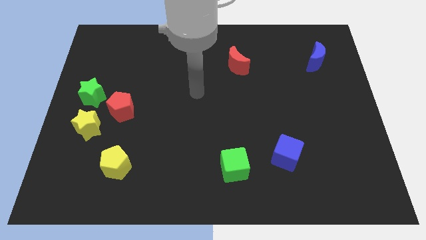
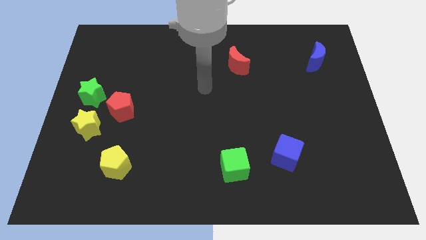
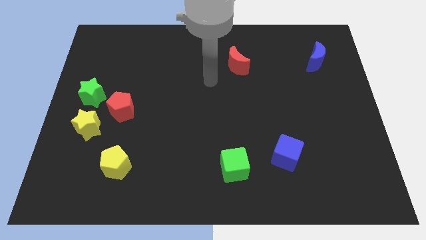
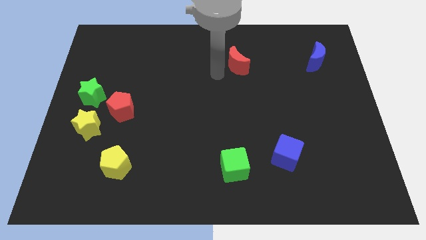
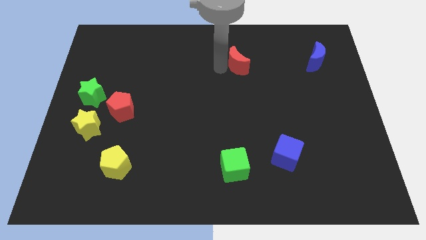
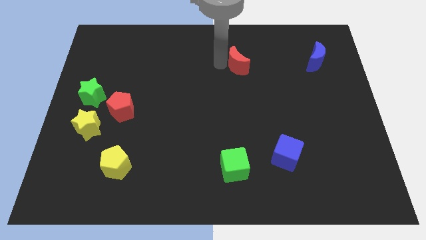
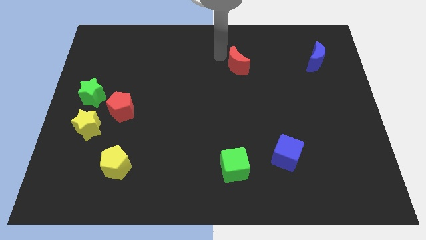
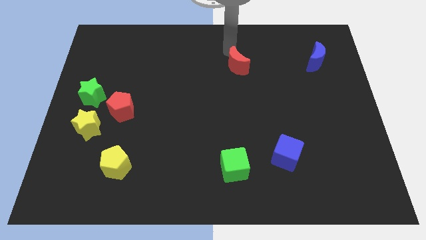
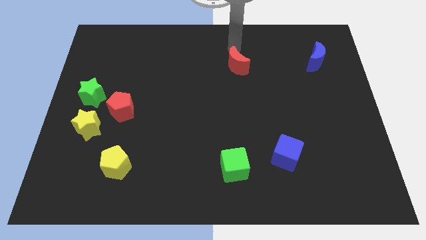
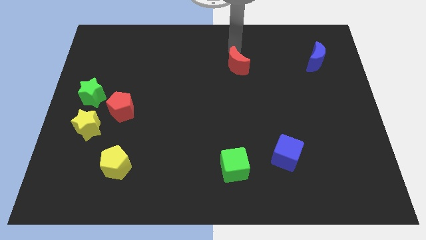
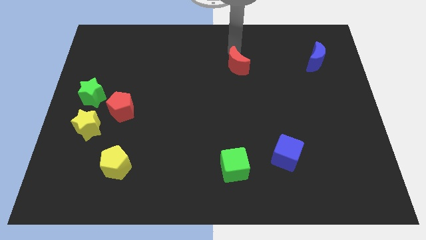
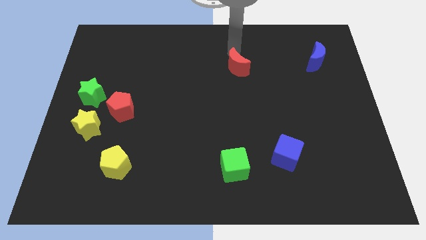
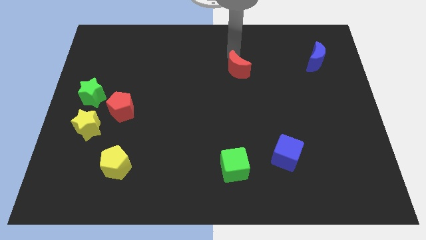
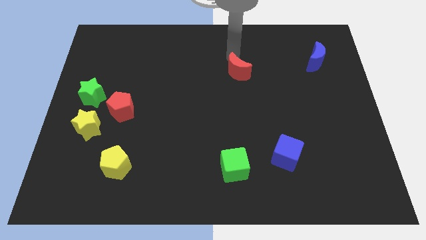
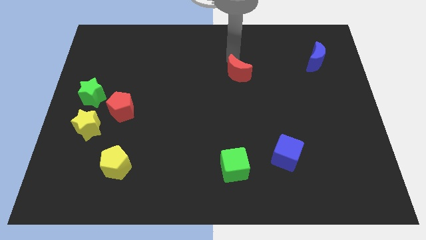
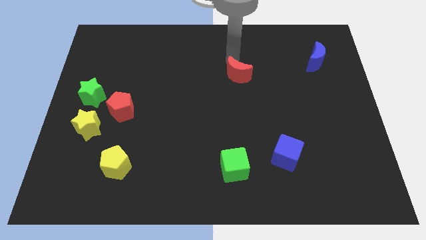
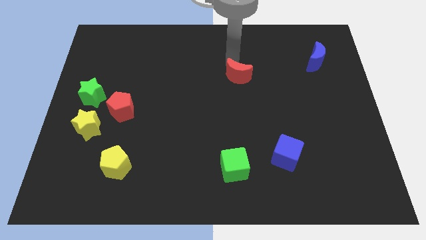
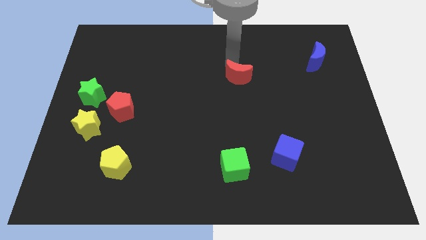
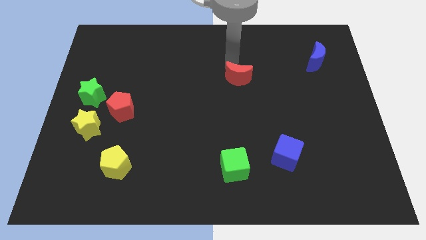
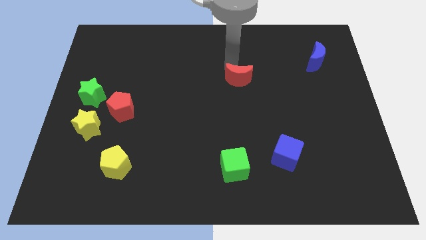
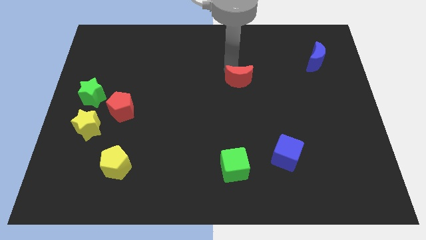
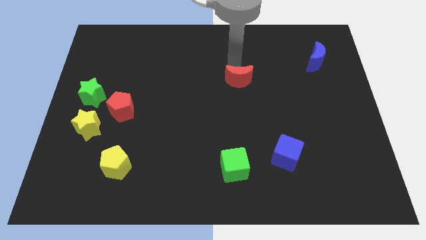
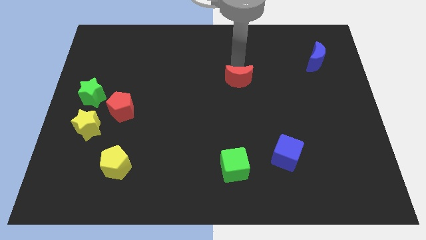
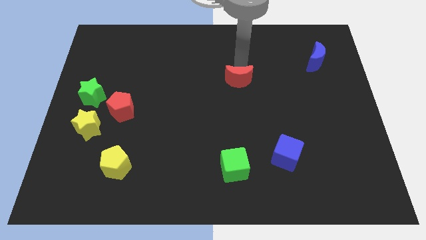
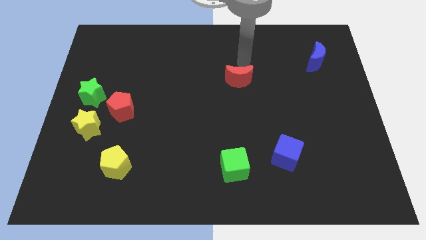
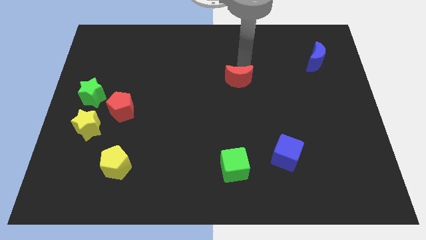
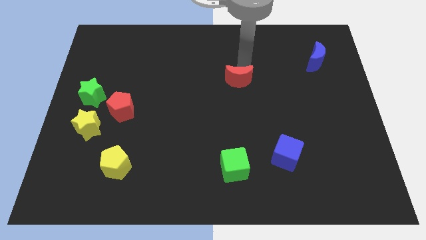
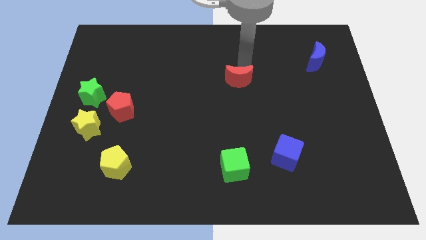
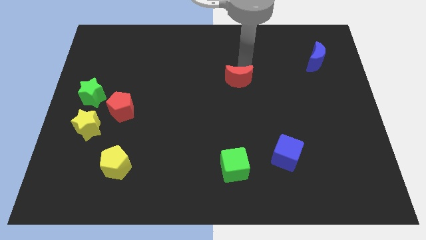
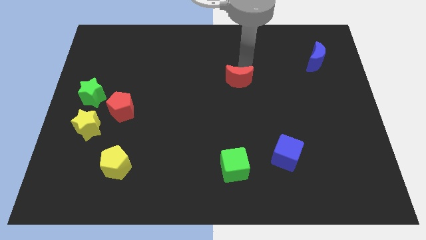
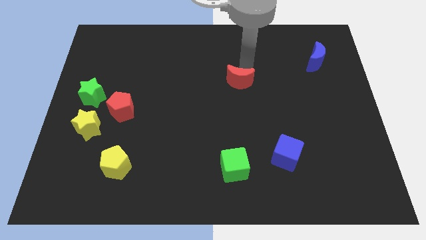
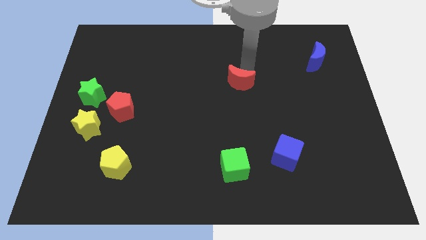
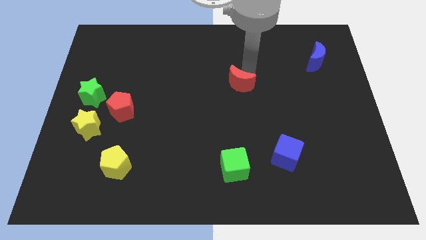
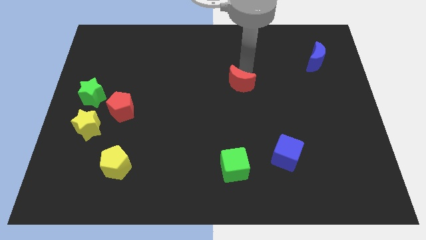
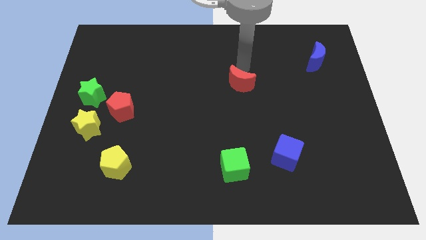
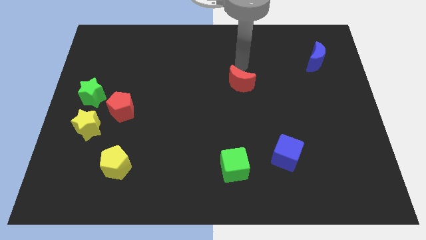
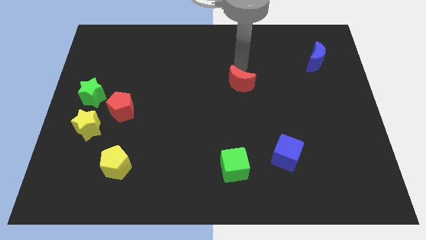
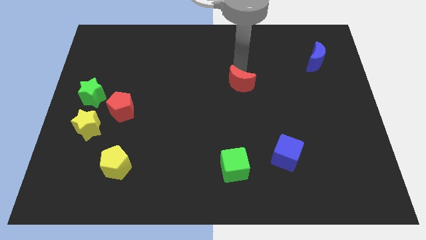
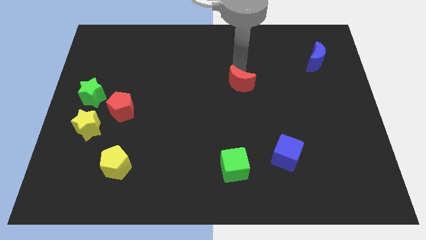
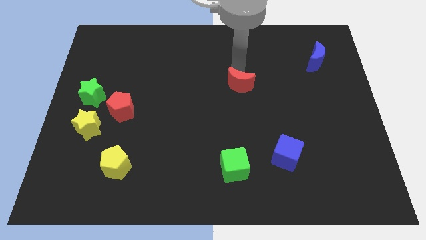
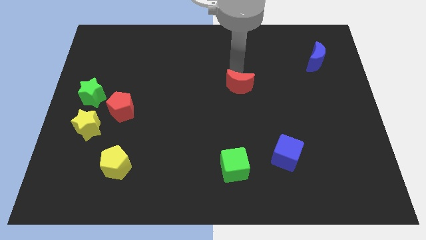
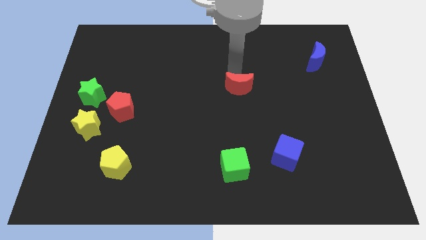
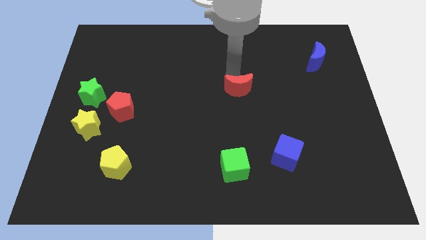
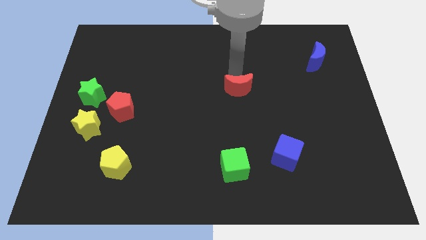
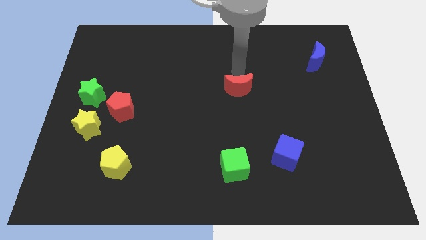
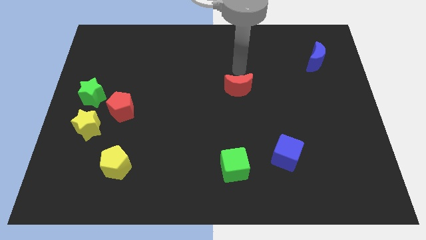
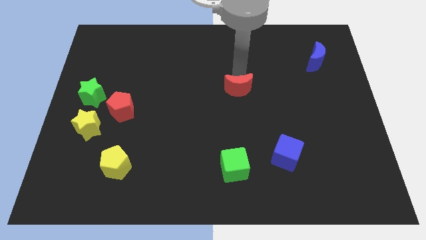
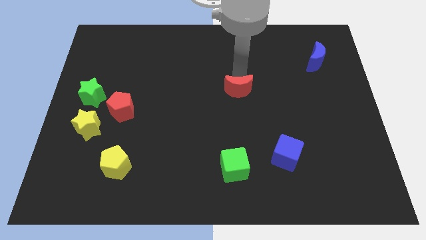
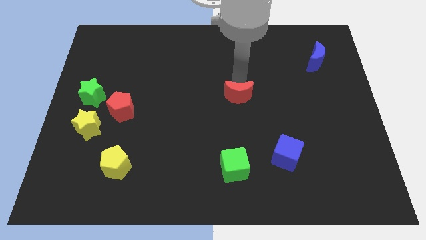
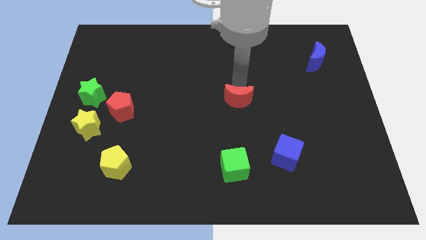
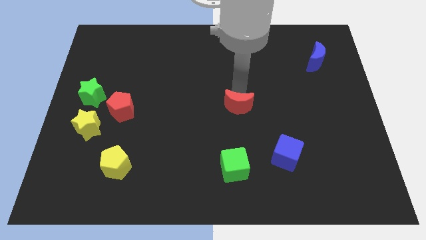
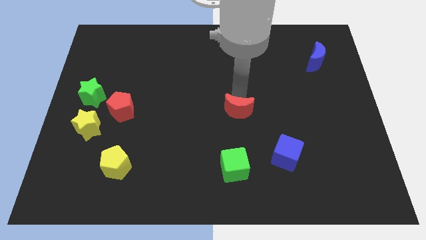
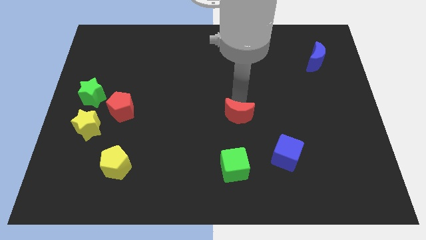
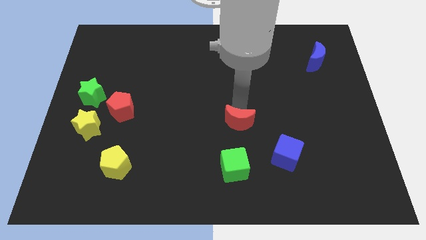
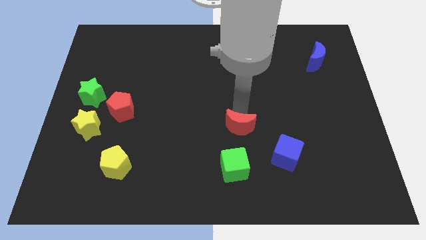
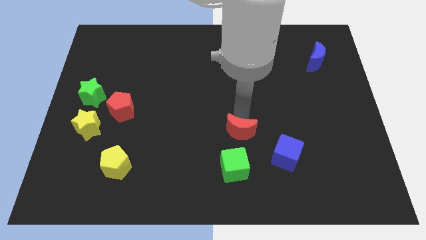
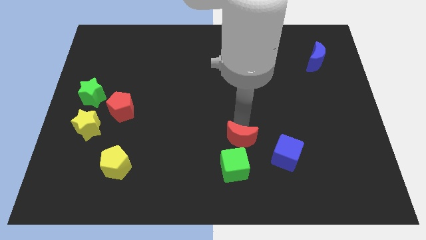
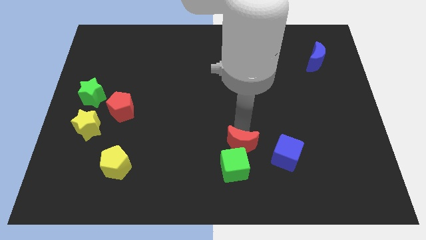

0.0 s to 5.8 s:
move the red moon towards the green cube

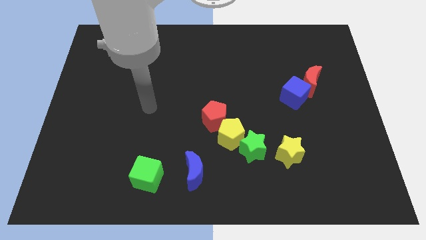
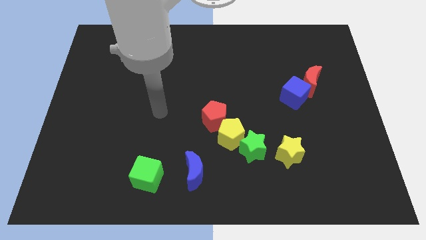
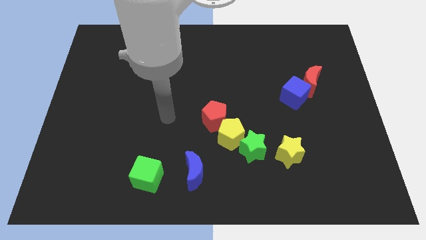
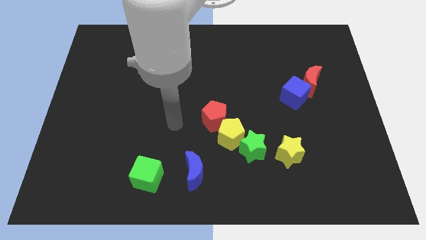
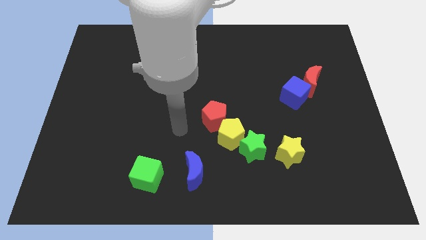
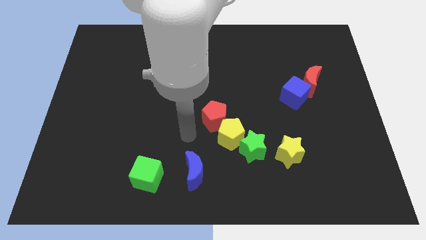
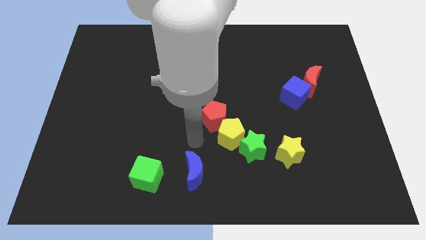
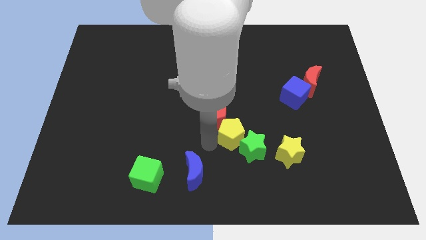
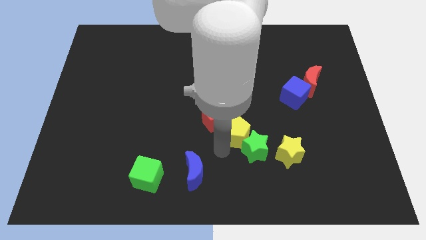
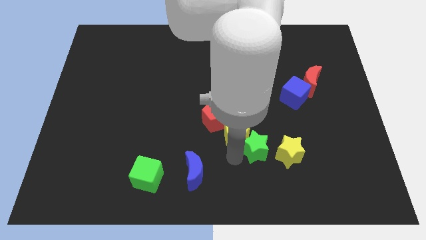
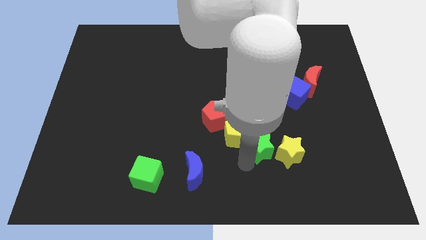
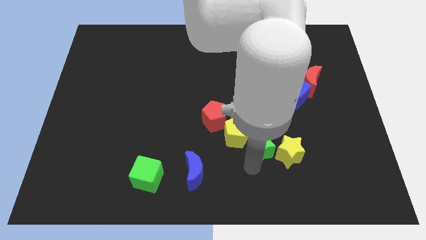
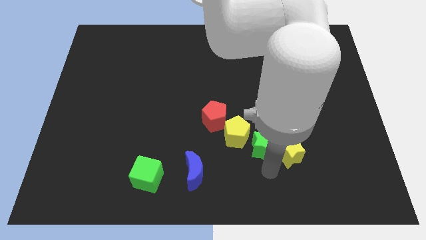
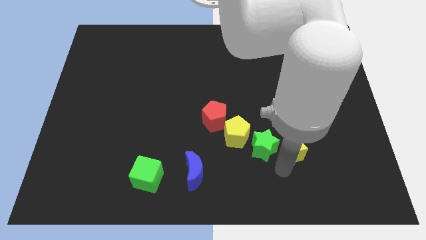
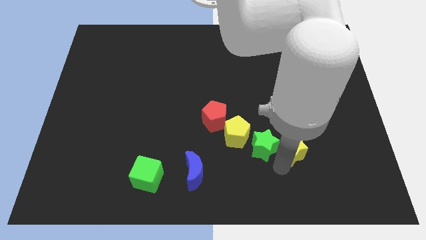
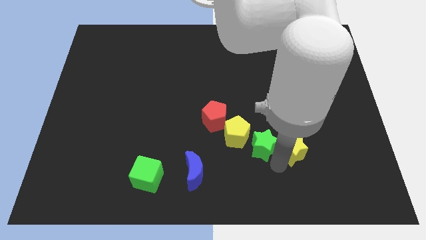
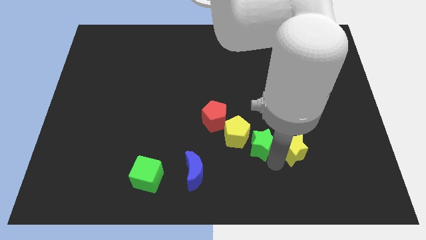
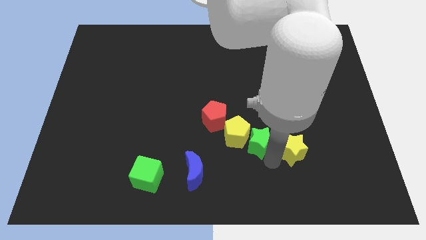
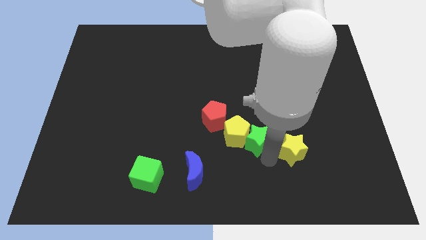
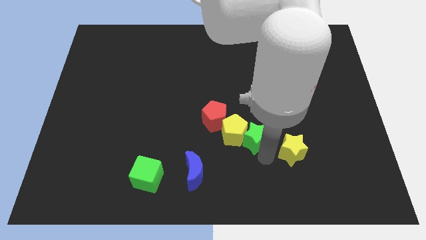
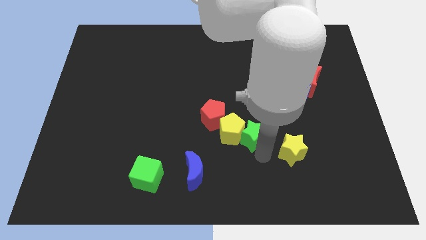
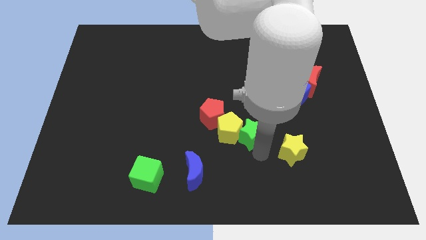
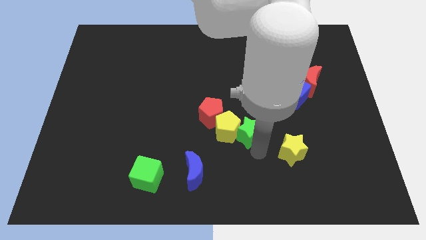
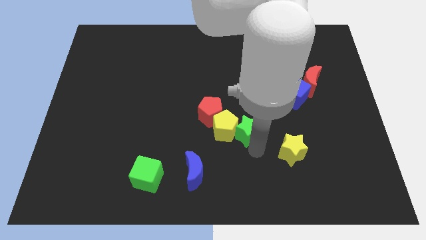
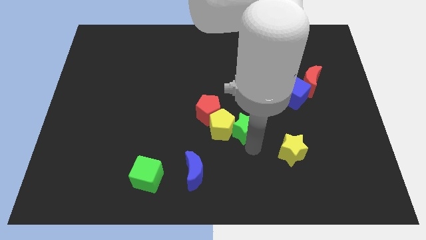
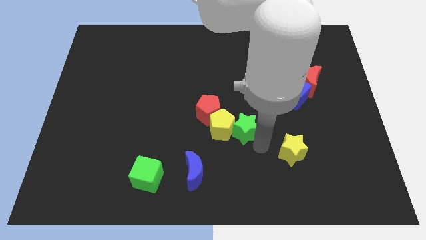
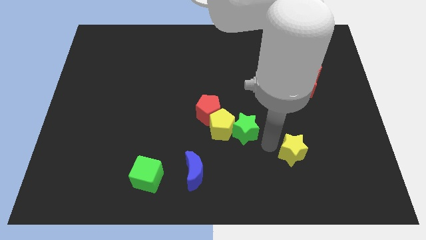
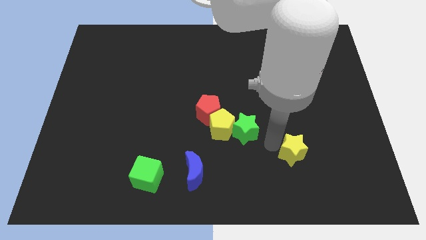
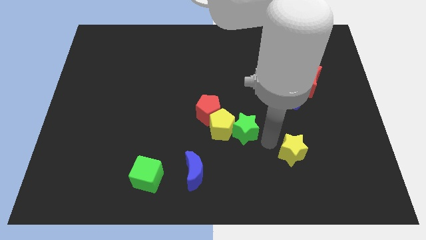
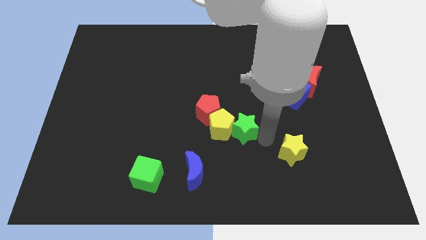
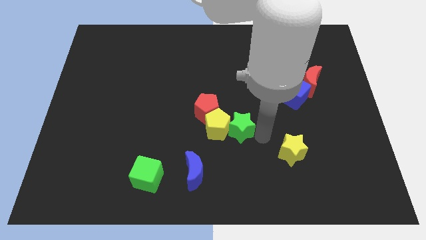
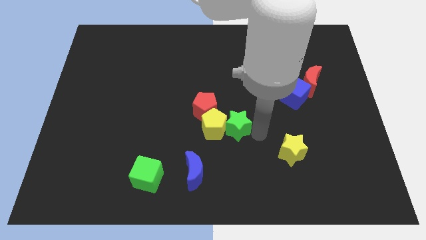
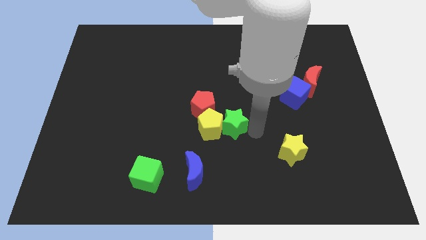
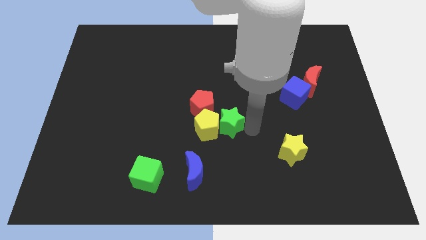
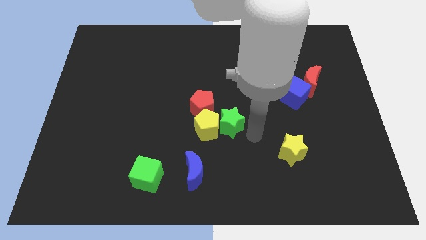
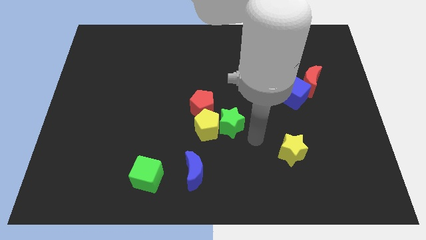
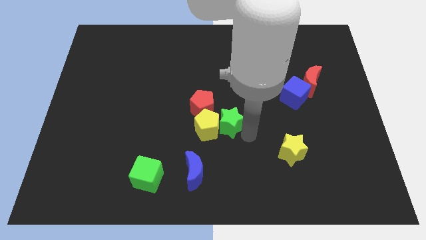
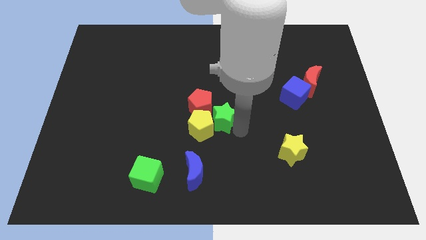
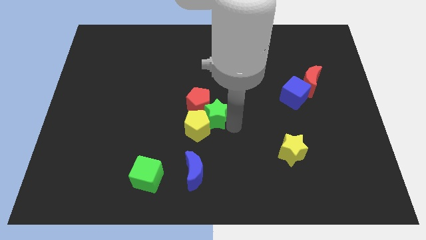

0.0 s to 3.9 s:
push the green star close to the red pentagon
